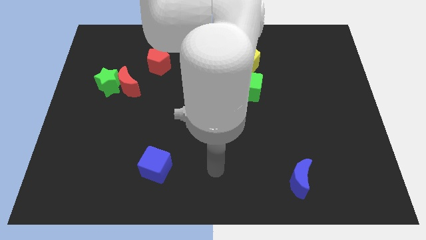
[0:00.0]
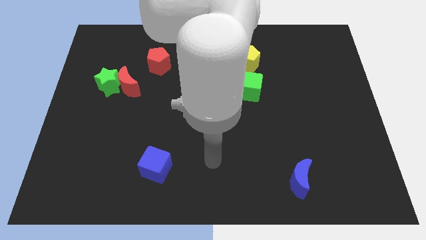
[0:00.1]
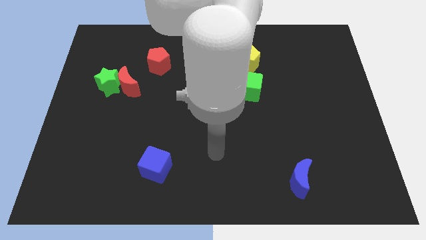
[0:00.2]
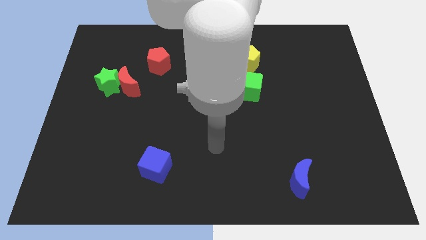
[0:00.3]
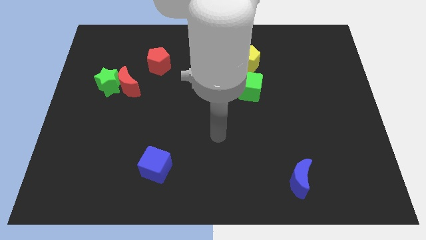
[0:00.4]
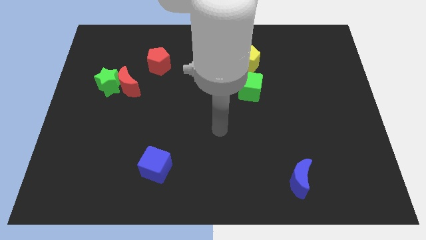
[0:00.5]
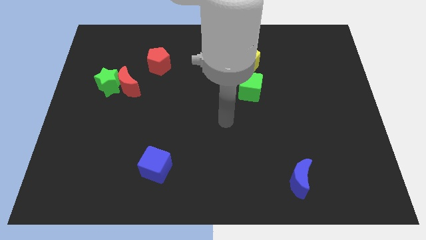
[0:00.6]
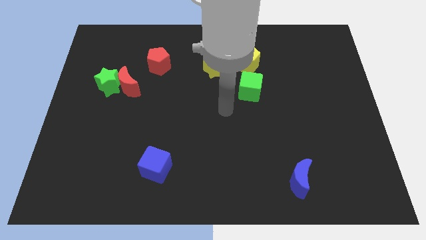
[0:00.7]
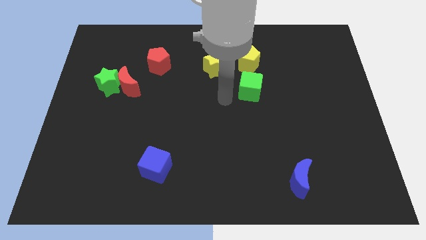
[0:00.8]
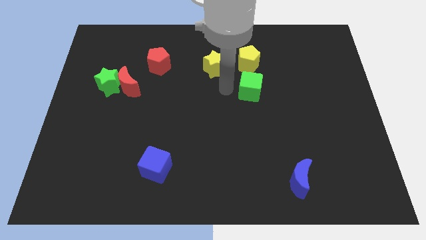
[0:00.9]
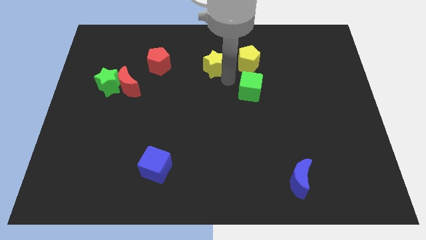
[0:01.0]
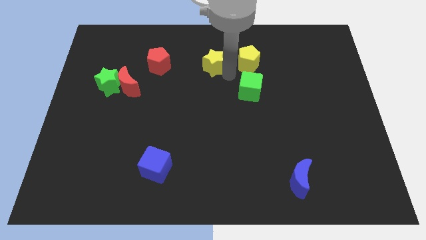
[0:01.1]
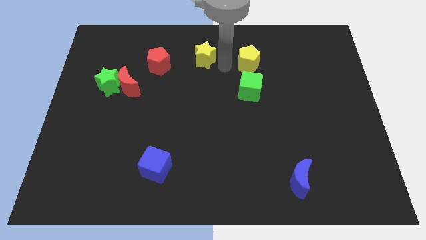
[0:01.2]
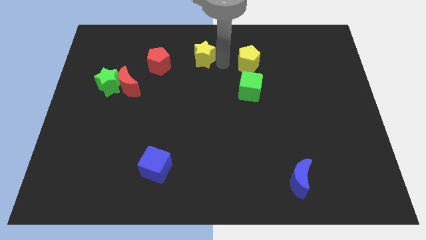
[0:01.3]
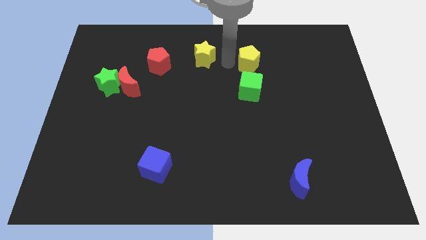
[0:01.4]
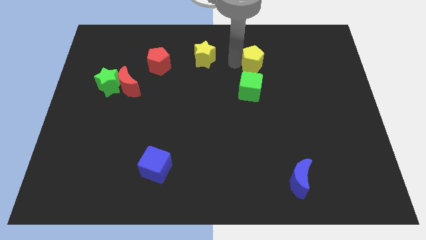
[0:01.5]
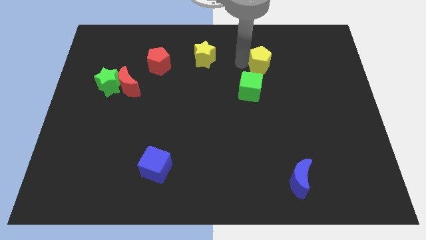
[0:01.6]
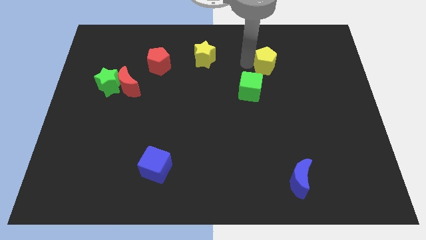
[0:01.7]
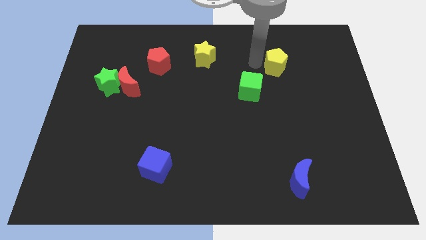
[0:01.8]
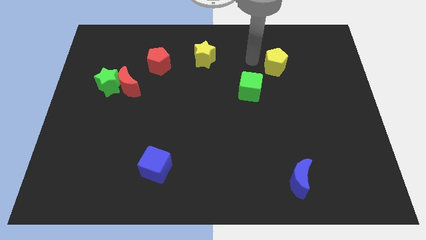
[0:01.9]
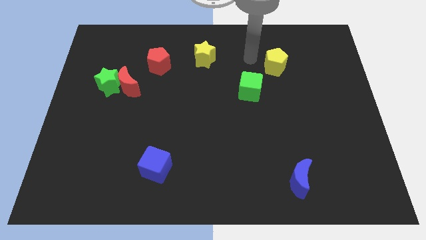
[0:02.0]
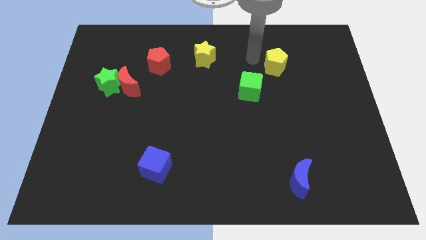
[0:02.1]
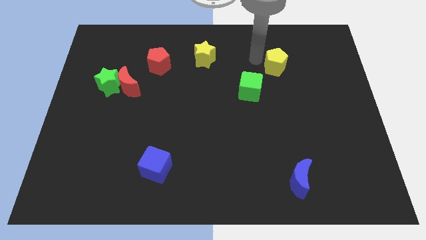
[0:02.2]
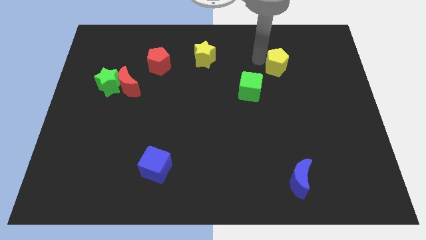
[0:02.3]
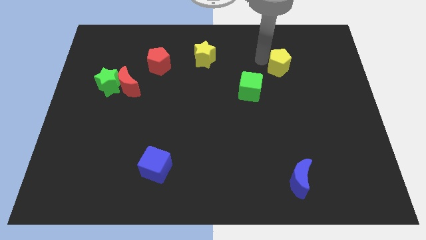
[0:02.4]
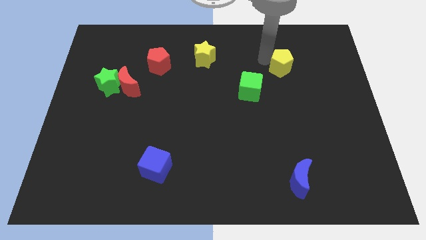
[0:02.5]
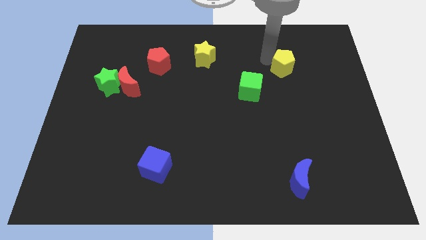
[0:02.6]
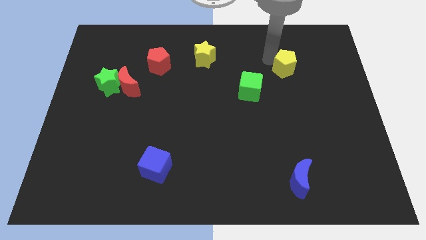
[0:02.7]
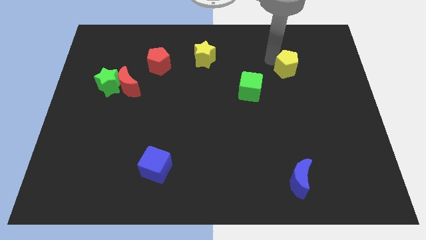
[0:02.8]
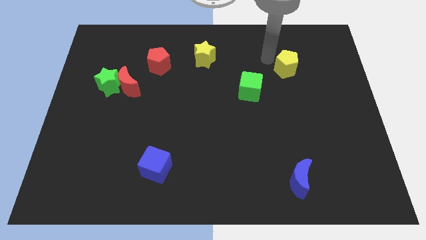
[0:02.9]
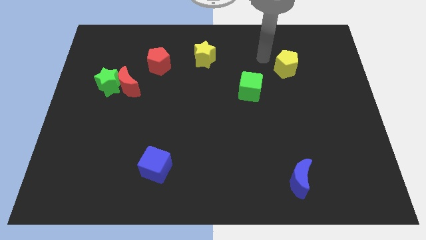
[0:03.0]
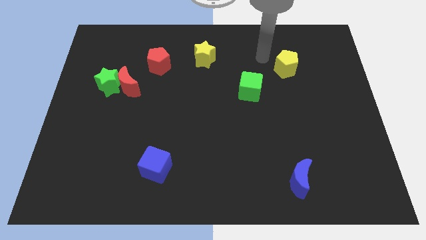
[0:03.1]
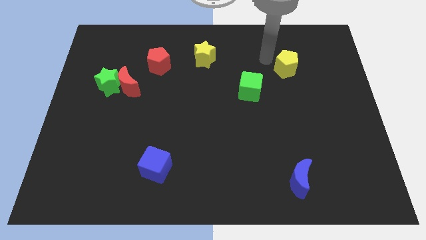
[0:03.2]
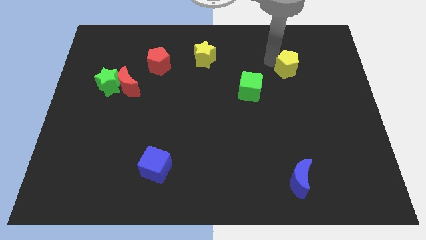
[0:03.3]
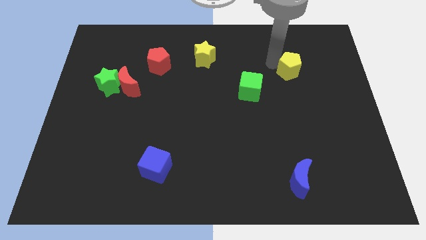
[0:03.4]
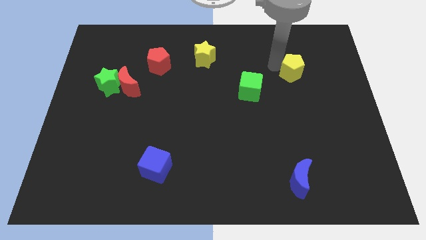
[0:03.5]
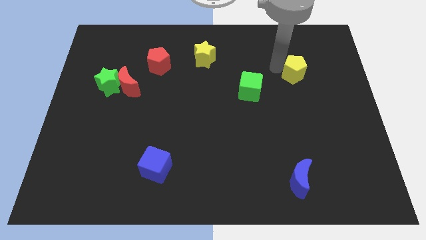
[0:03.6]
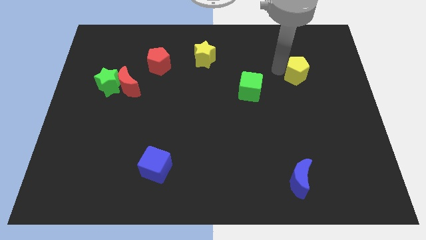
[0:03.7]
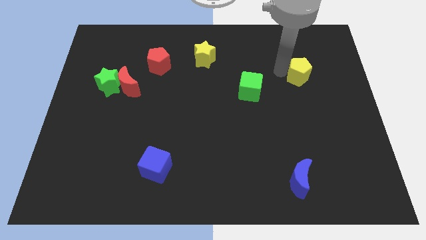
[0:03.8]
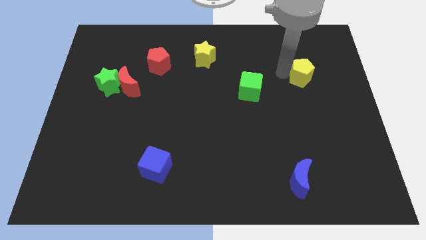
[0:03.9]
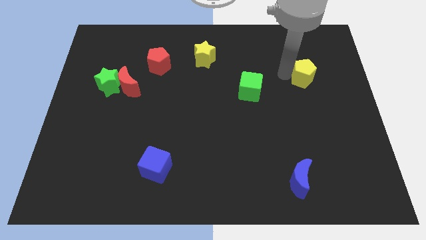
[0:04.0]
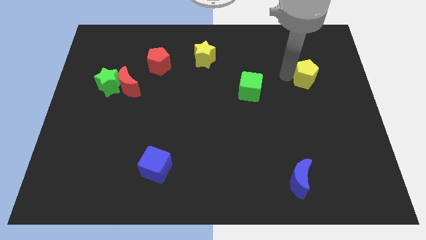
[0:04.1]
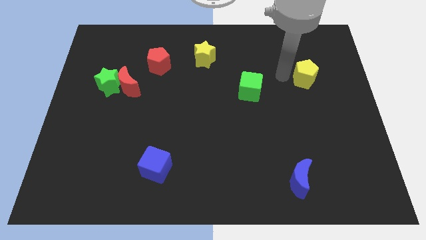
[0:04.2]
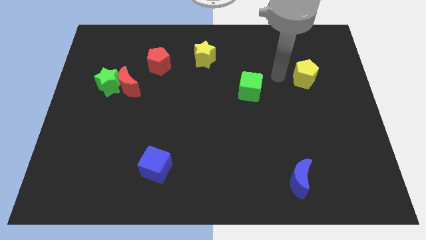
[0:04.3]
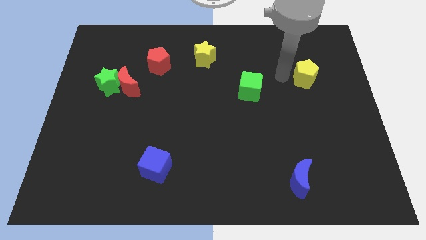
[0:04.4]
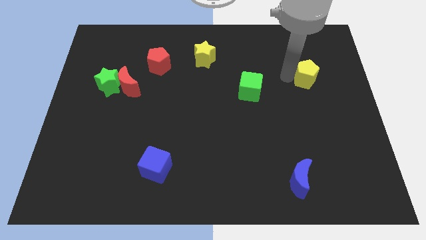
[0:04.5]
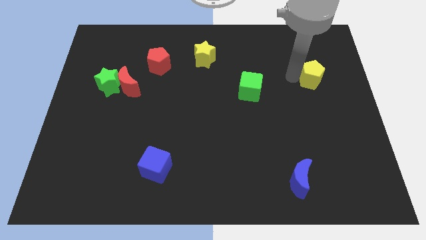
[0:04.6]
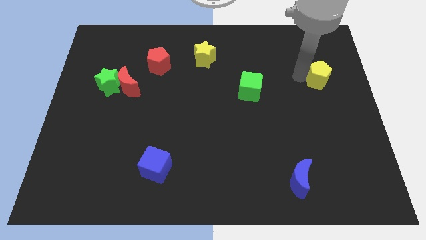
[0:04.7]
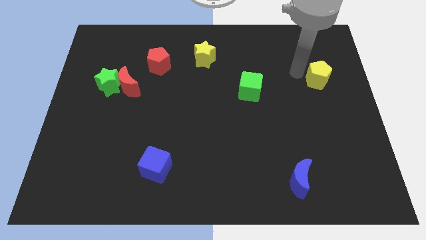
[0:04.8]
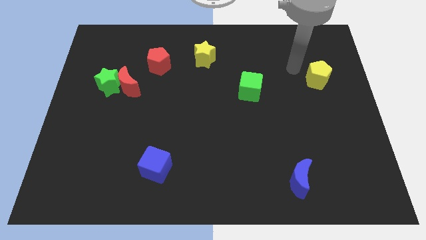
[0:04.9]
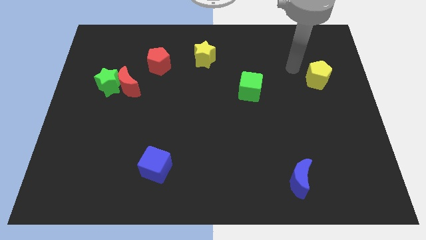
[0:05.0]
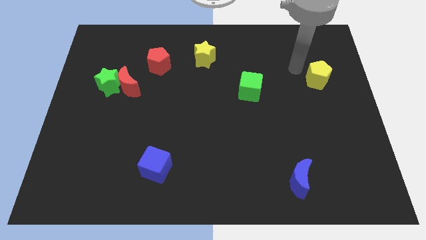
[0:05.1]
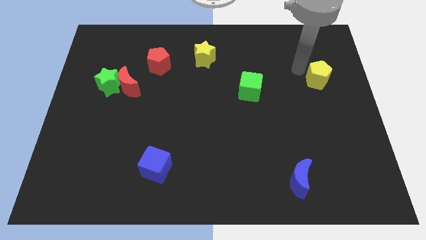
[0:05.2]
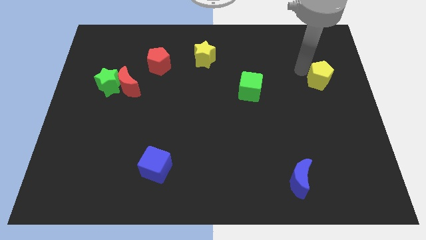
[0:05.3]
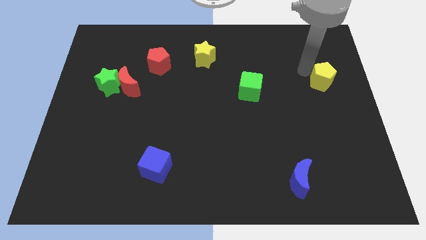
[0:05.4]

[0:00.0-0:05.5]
move the yellow pentagon to the right side

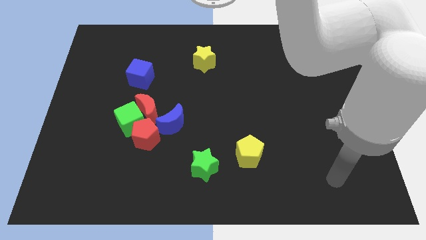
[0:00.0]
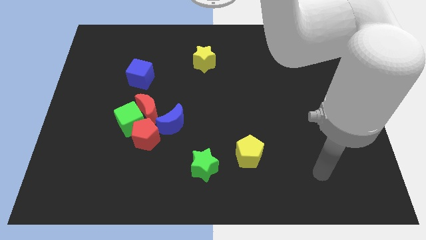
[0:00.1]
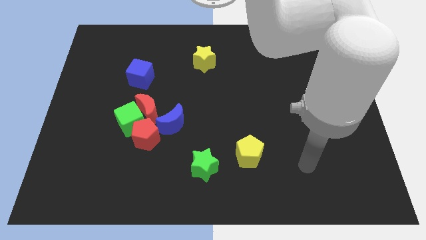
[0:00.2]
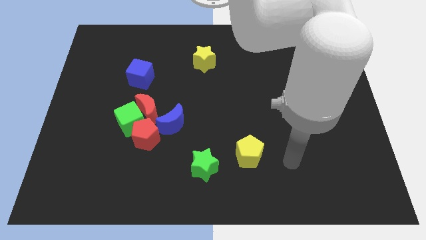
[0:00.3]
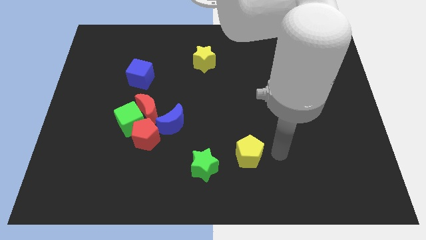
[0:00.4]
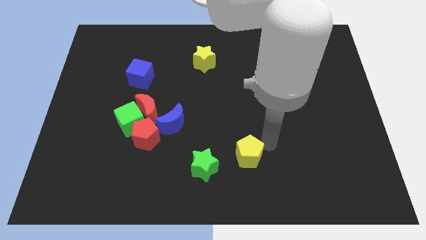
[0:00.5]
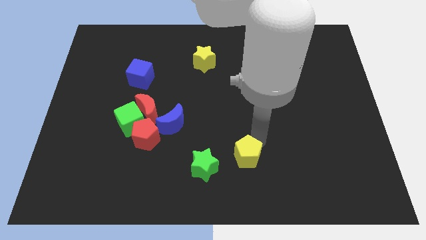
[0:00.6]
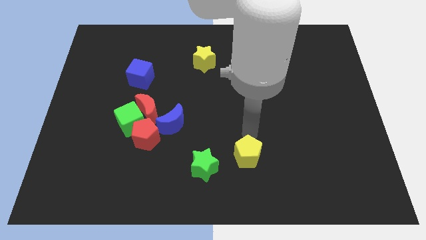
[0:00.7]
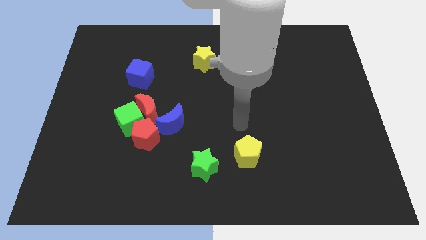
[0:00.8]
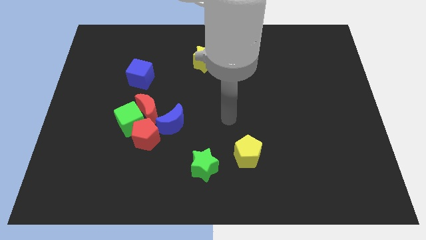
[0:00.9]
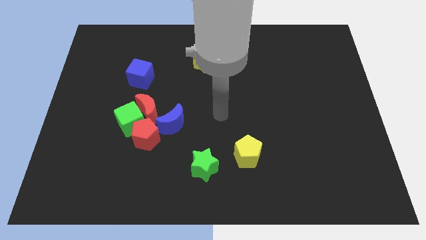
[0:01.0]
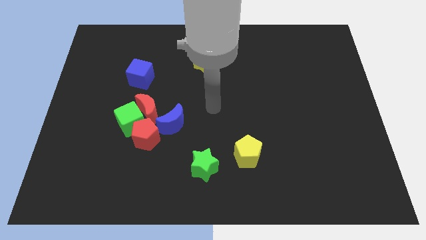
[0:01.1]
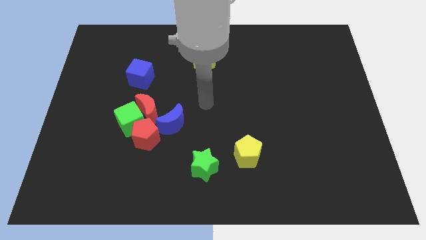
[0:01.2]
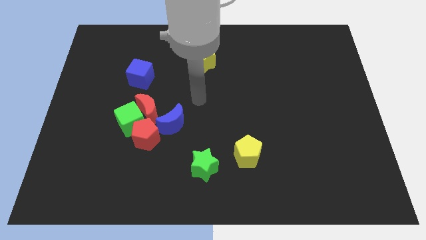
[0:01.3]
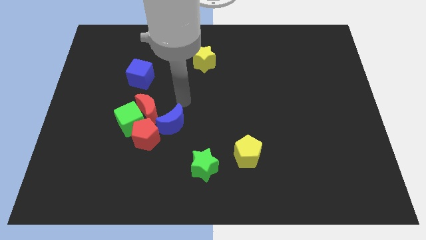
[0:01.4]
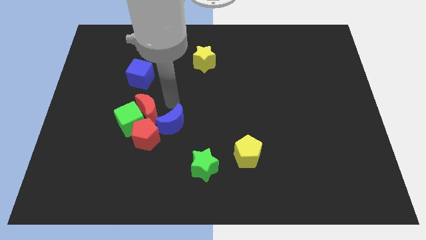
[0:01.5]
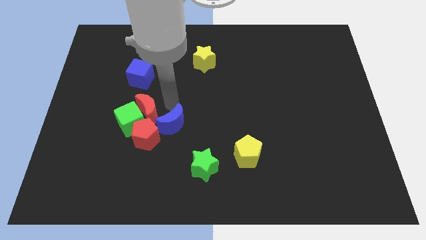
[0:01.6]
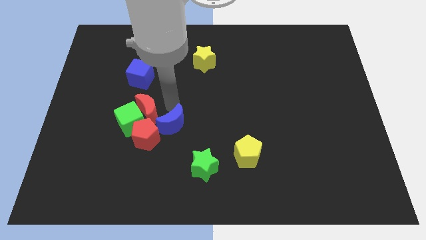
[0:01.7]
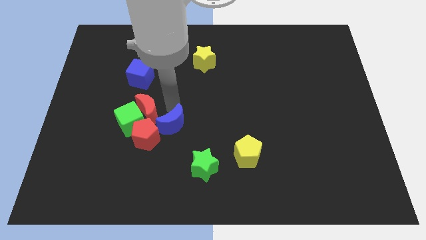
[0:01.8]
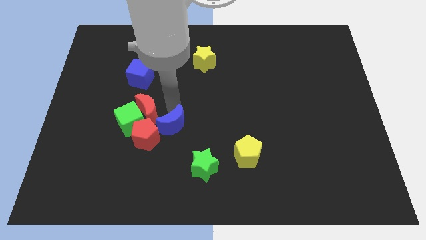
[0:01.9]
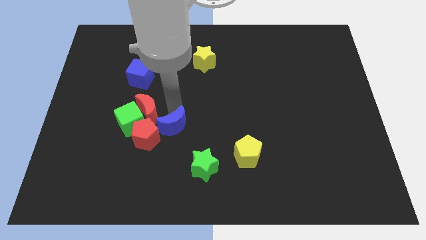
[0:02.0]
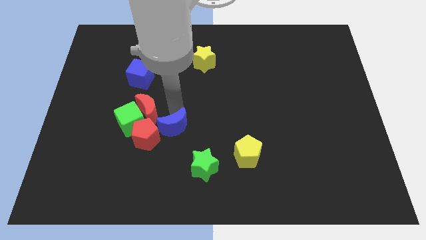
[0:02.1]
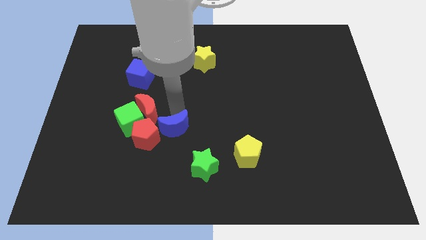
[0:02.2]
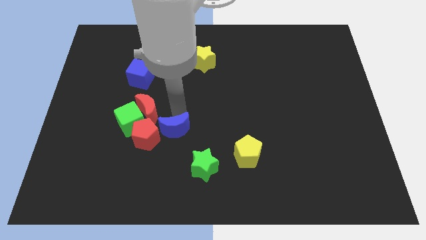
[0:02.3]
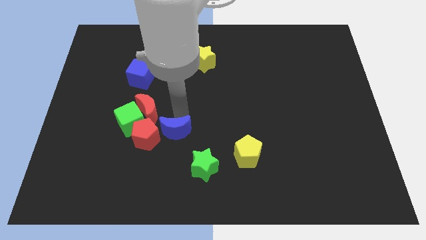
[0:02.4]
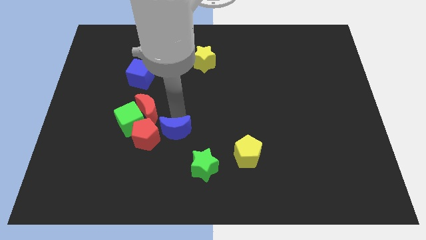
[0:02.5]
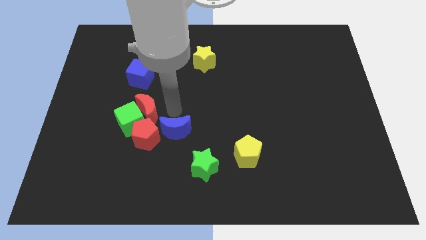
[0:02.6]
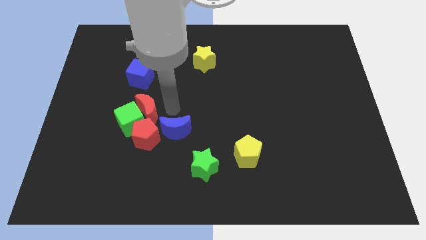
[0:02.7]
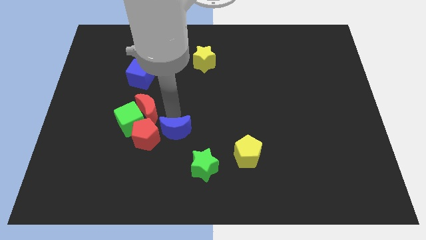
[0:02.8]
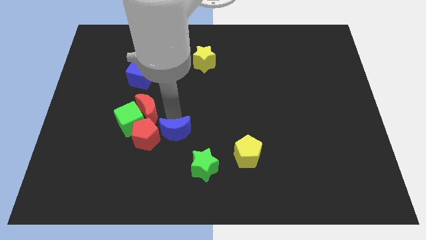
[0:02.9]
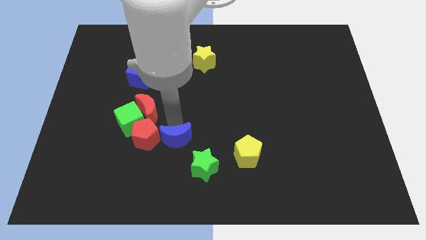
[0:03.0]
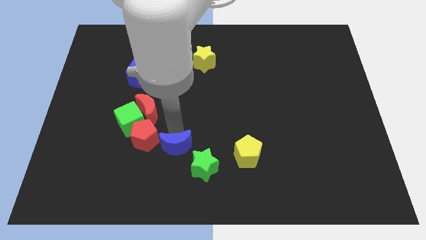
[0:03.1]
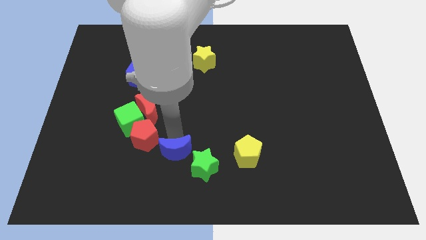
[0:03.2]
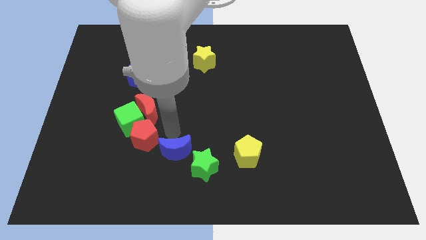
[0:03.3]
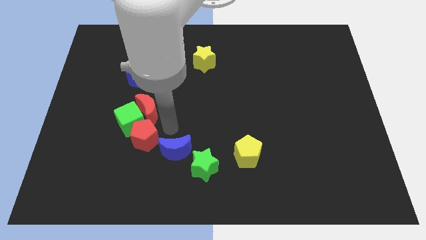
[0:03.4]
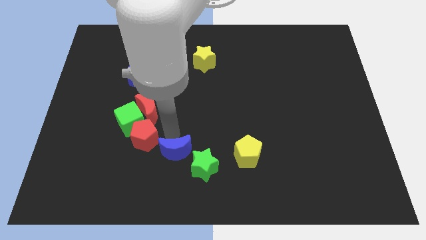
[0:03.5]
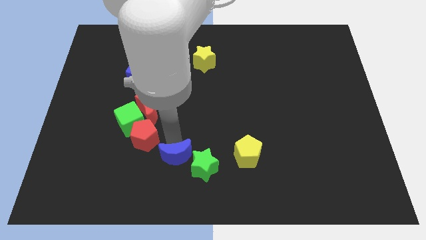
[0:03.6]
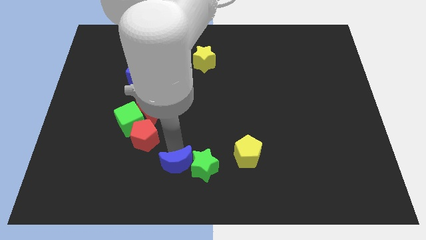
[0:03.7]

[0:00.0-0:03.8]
move the blue moon to the bottom side
